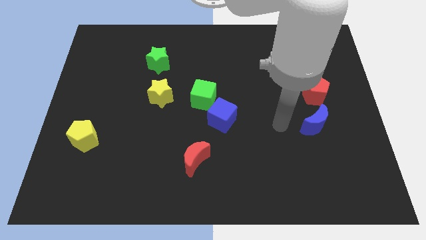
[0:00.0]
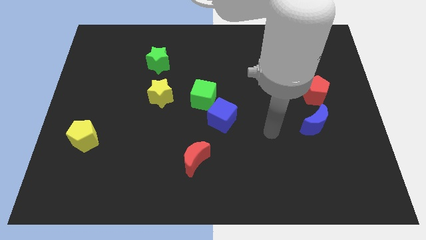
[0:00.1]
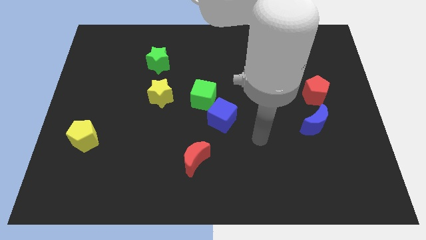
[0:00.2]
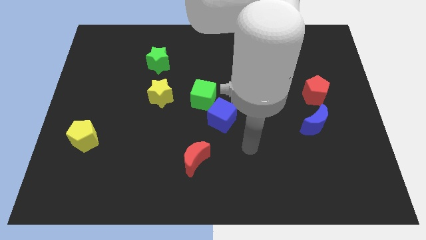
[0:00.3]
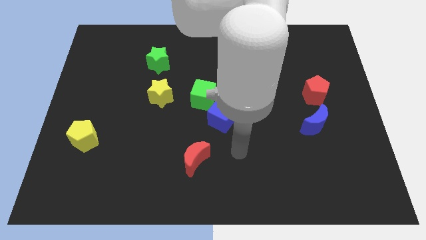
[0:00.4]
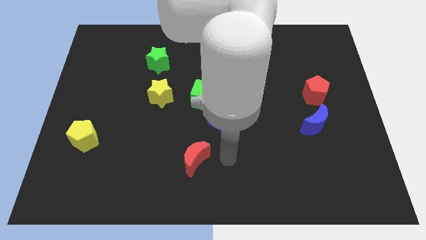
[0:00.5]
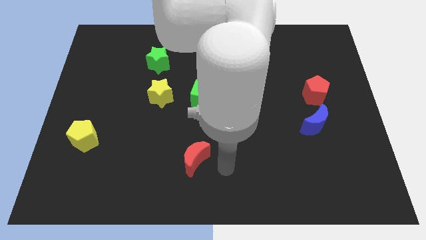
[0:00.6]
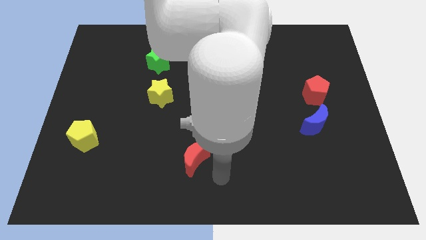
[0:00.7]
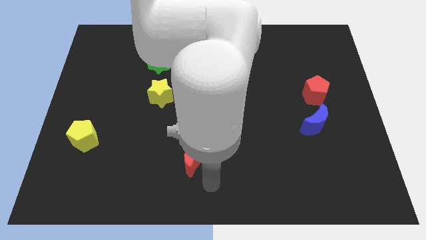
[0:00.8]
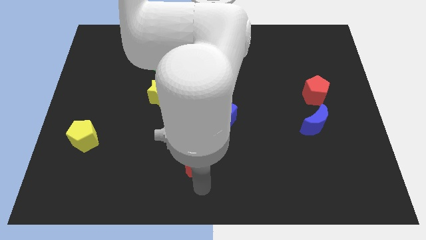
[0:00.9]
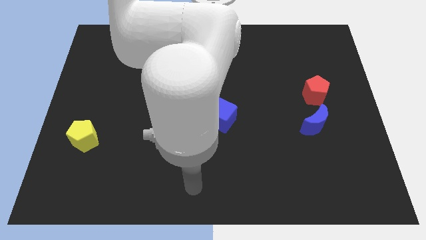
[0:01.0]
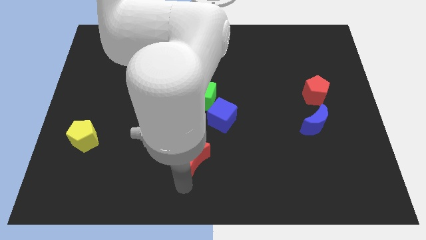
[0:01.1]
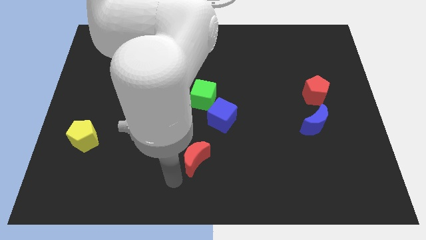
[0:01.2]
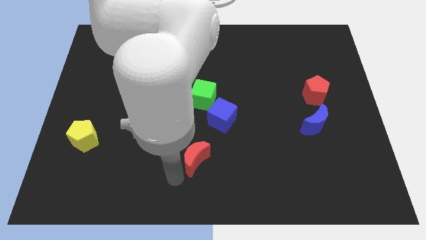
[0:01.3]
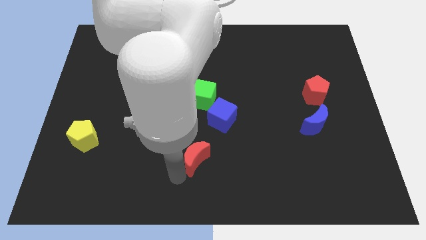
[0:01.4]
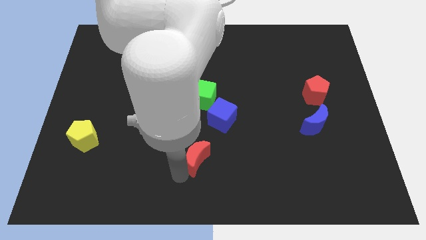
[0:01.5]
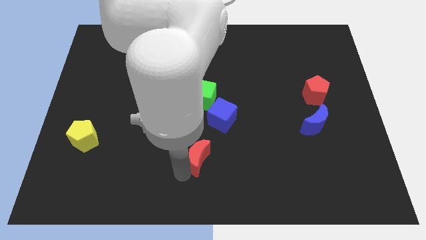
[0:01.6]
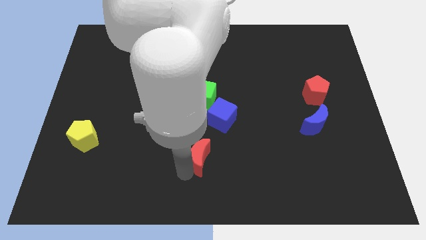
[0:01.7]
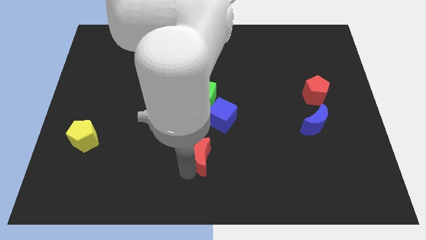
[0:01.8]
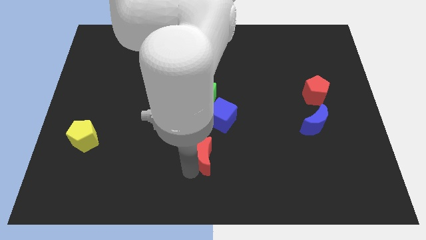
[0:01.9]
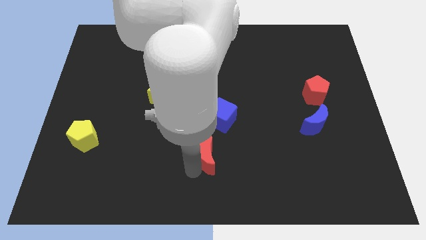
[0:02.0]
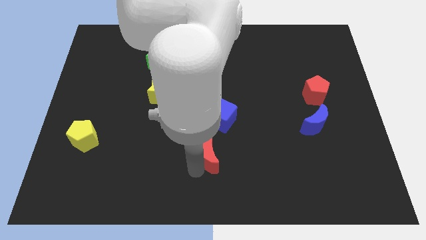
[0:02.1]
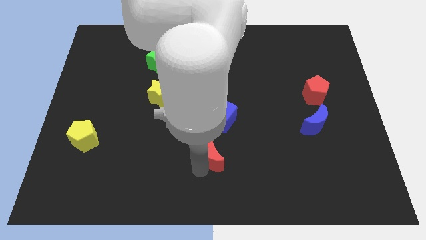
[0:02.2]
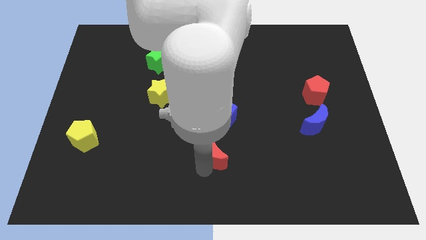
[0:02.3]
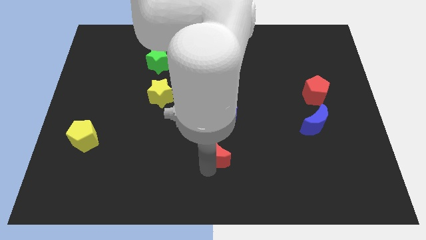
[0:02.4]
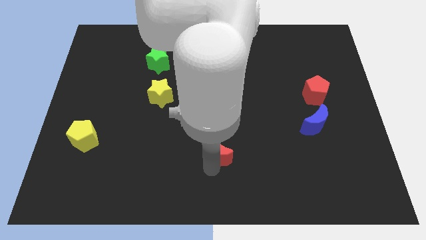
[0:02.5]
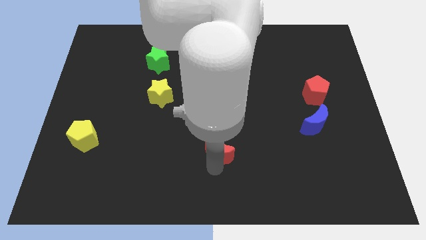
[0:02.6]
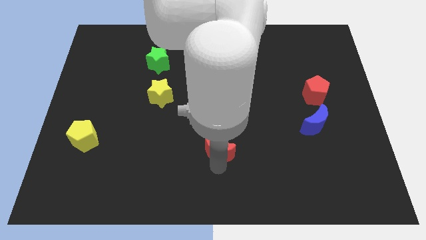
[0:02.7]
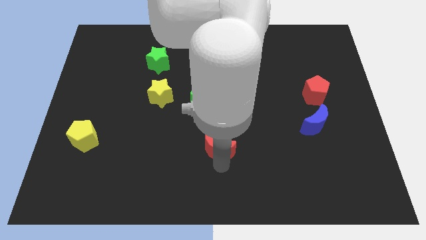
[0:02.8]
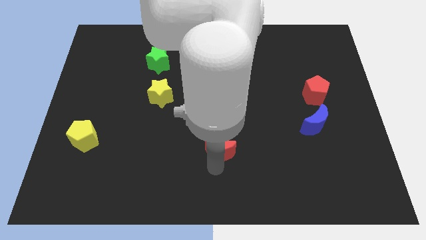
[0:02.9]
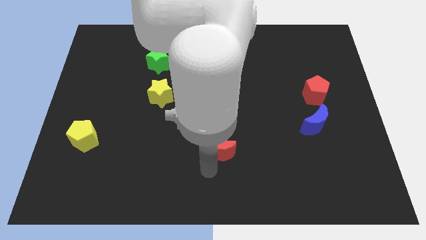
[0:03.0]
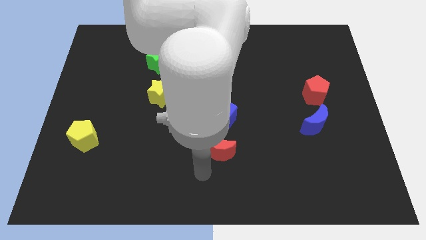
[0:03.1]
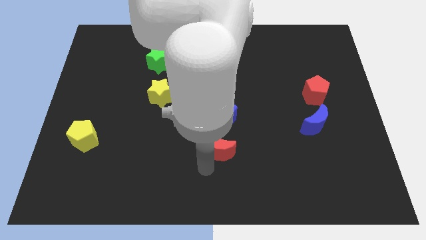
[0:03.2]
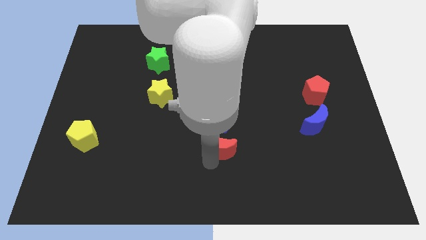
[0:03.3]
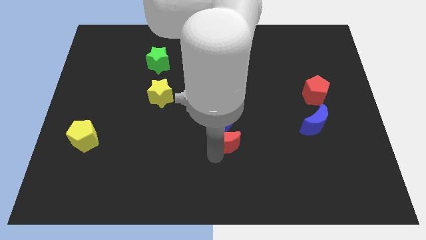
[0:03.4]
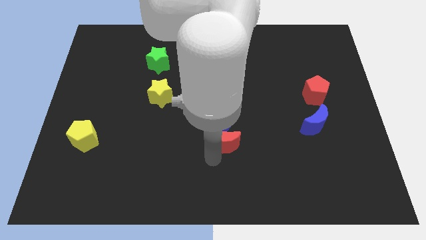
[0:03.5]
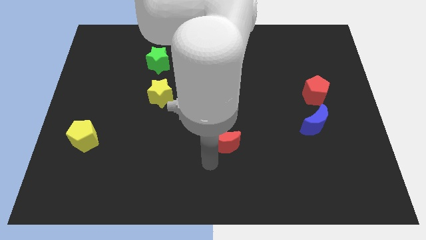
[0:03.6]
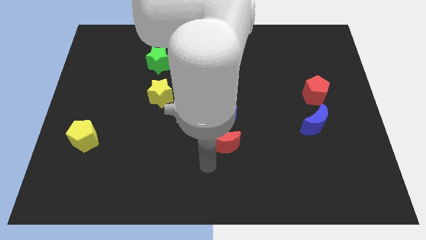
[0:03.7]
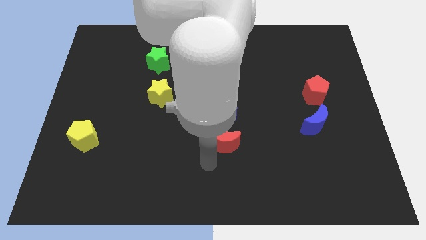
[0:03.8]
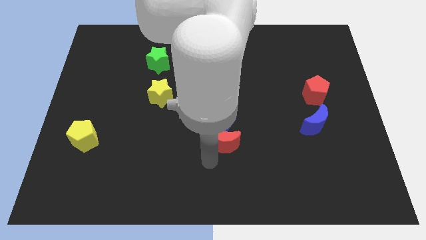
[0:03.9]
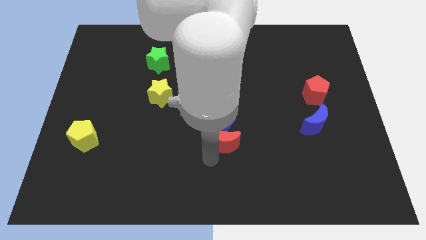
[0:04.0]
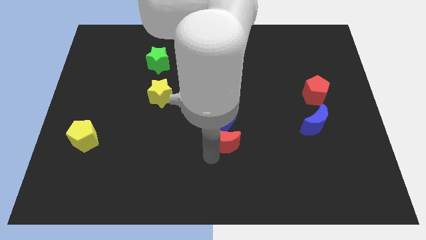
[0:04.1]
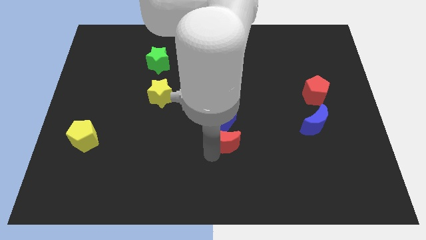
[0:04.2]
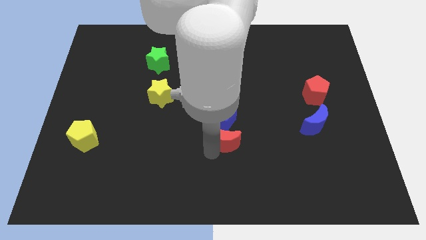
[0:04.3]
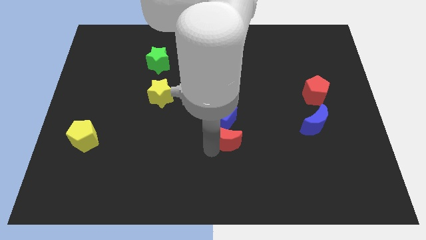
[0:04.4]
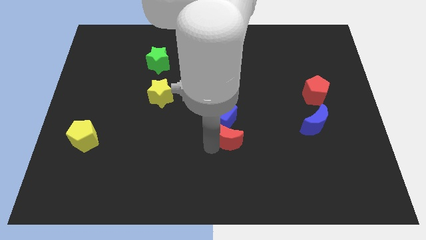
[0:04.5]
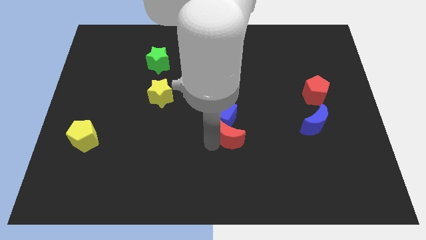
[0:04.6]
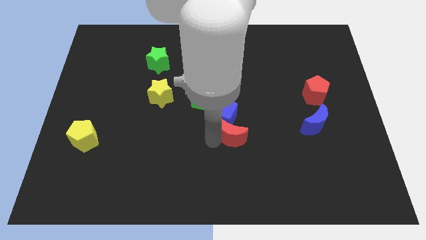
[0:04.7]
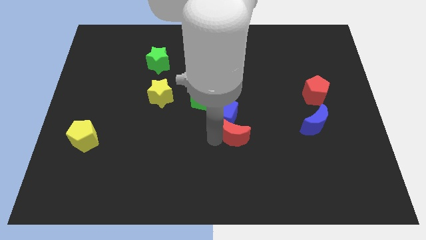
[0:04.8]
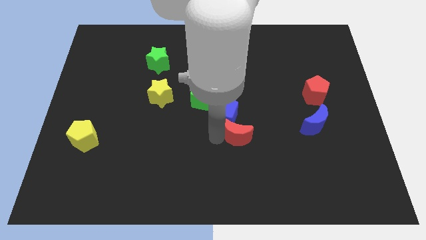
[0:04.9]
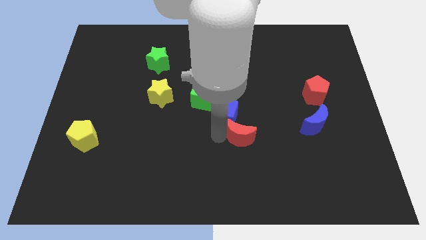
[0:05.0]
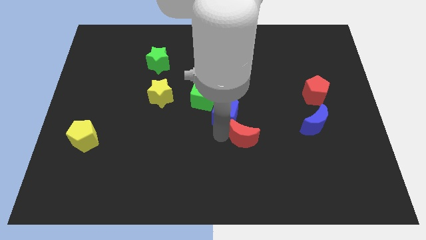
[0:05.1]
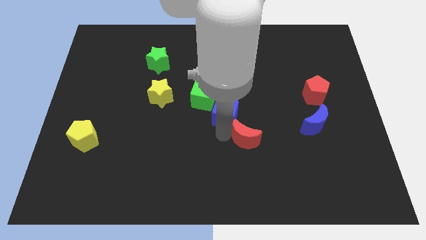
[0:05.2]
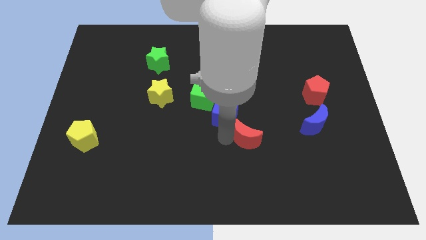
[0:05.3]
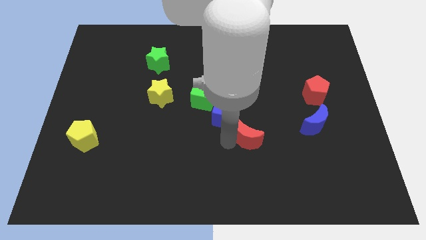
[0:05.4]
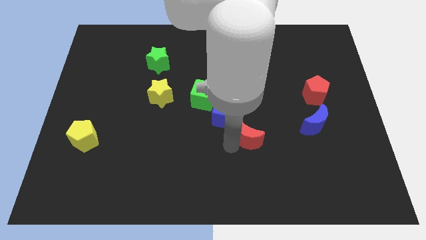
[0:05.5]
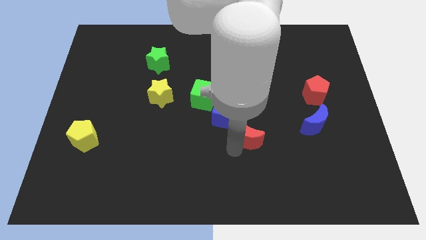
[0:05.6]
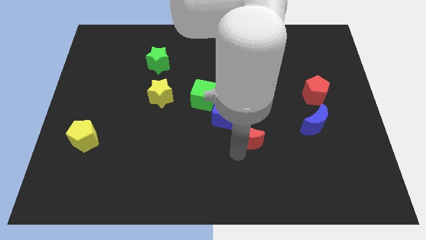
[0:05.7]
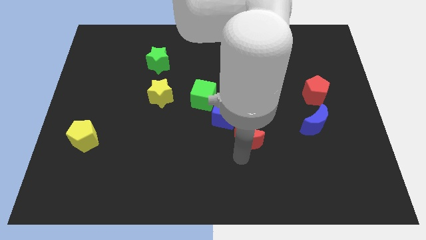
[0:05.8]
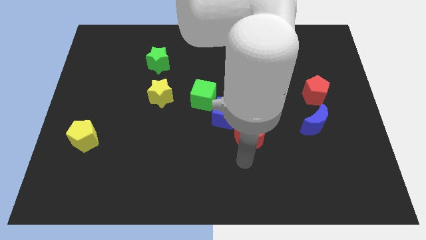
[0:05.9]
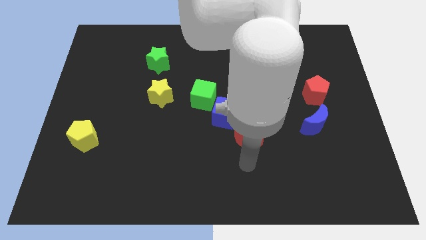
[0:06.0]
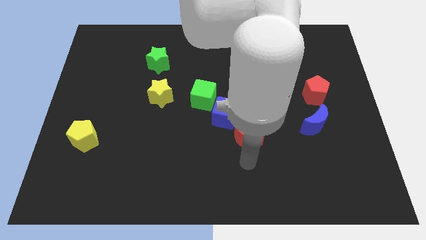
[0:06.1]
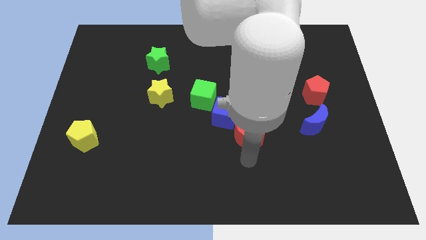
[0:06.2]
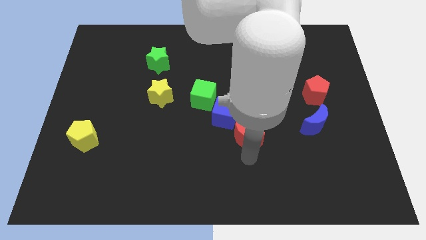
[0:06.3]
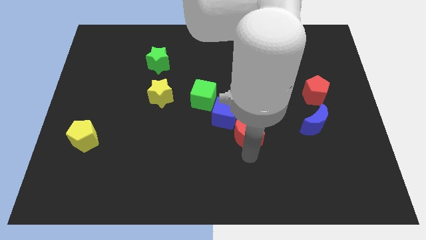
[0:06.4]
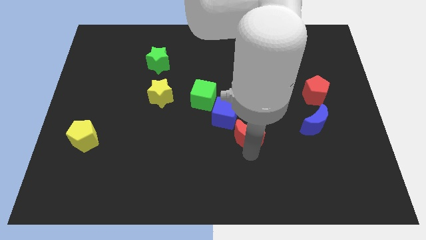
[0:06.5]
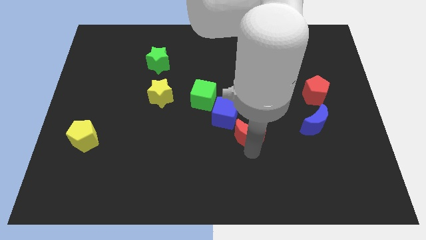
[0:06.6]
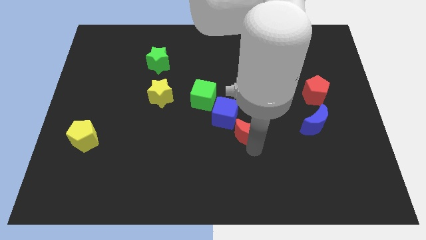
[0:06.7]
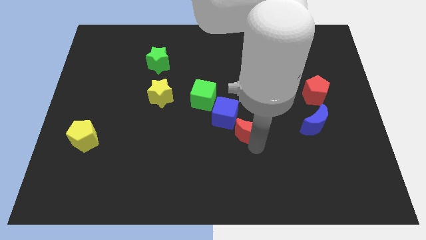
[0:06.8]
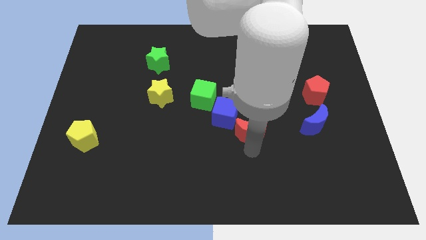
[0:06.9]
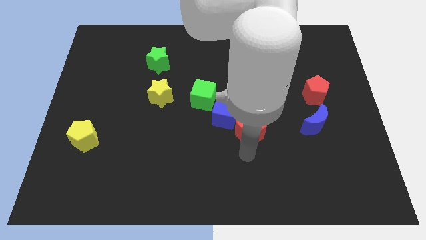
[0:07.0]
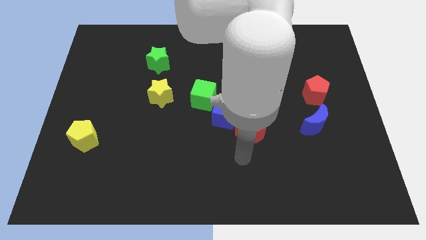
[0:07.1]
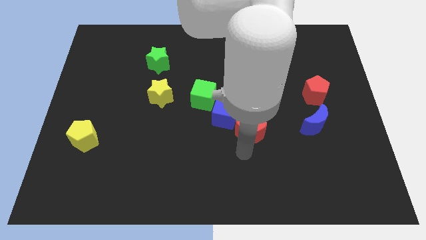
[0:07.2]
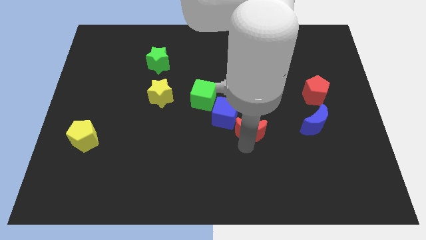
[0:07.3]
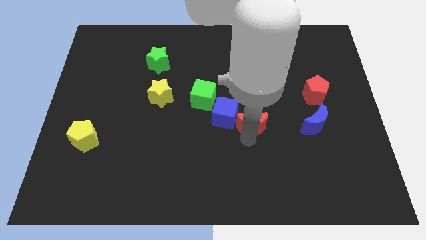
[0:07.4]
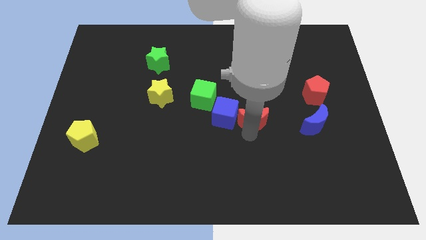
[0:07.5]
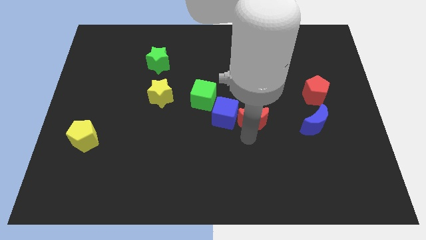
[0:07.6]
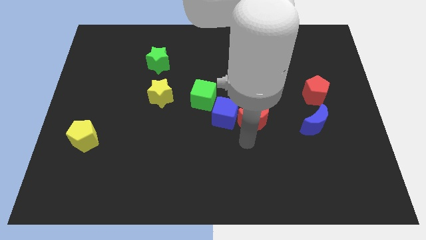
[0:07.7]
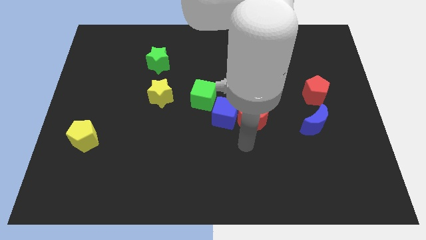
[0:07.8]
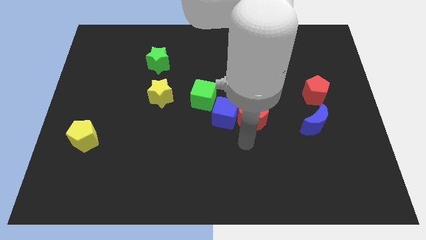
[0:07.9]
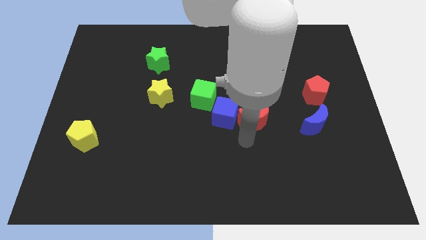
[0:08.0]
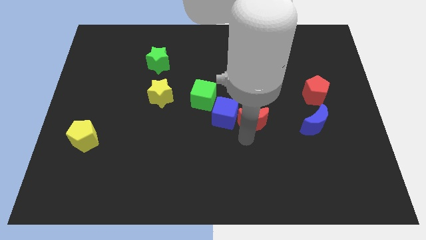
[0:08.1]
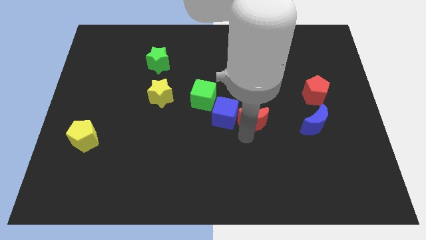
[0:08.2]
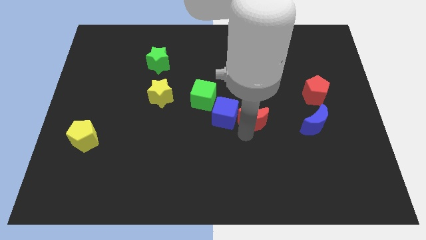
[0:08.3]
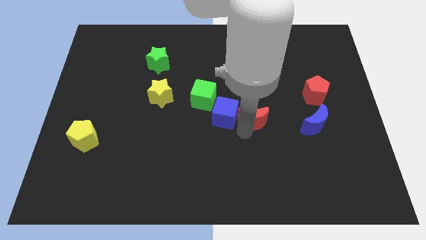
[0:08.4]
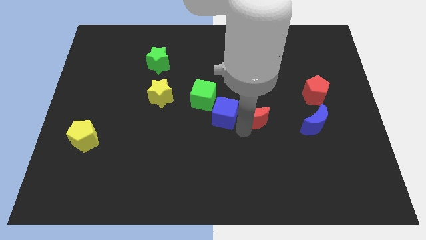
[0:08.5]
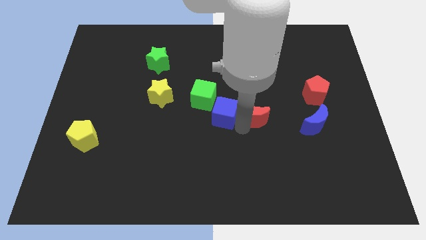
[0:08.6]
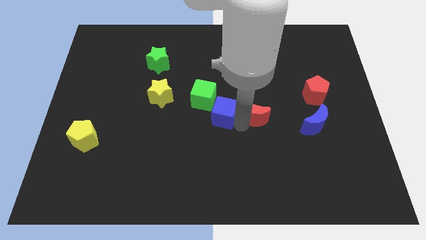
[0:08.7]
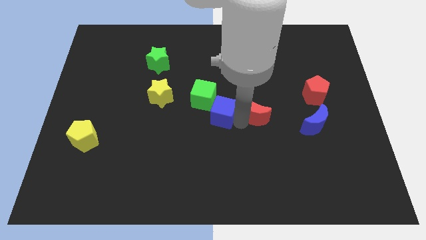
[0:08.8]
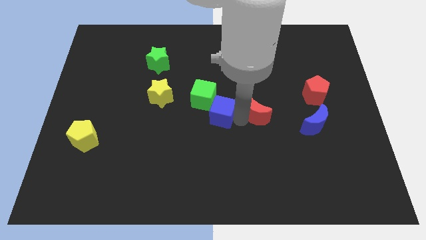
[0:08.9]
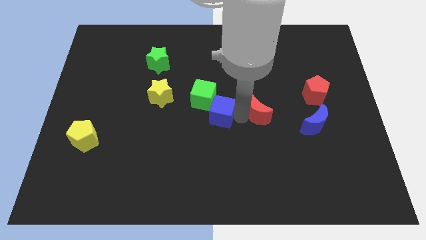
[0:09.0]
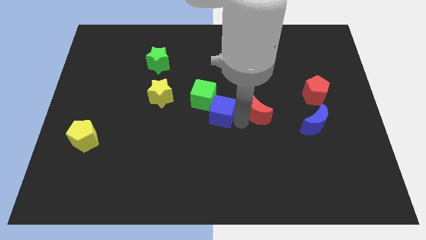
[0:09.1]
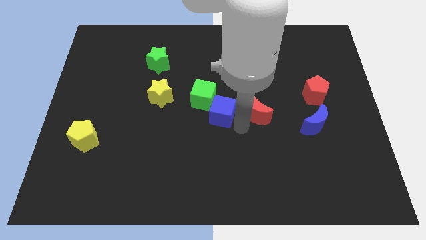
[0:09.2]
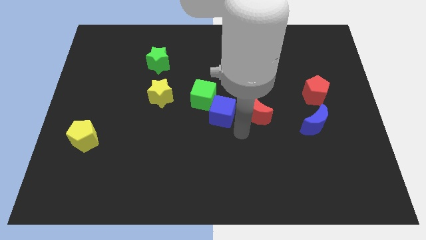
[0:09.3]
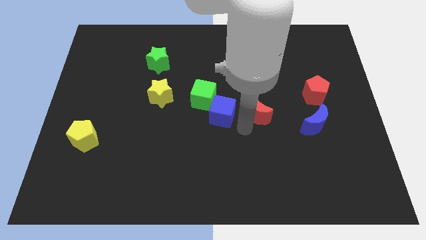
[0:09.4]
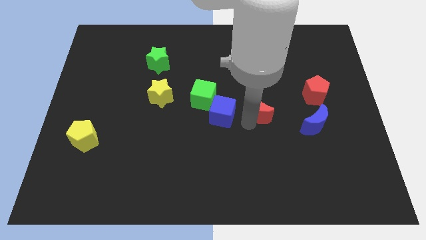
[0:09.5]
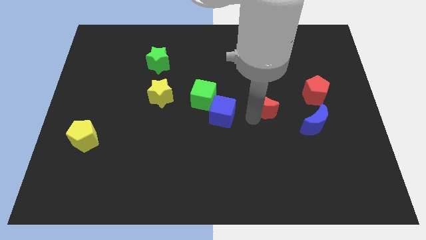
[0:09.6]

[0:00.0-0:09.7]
move the red moon left of the red pentagon
